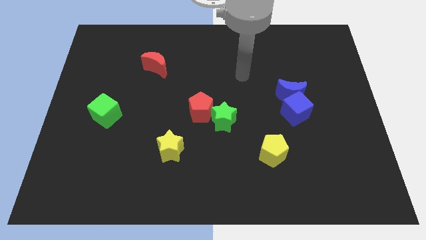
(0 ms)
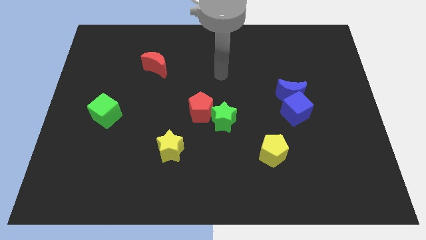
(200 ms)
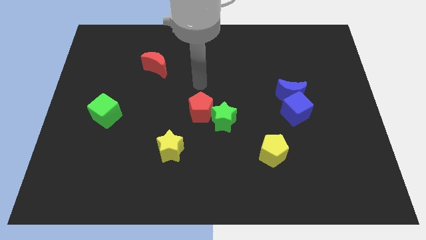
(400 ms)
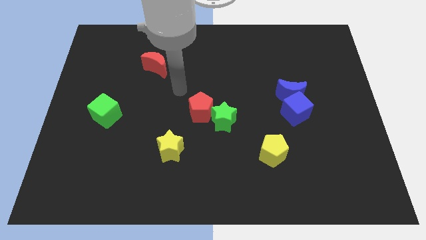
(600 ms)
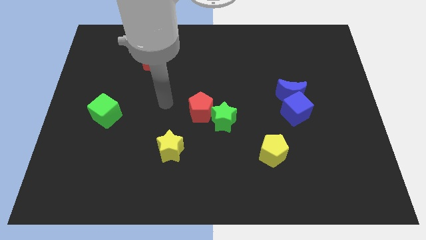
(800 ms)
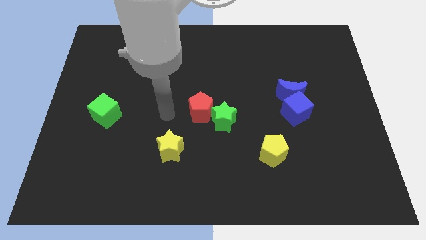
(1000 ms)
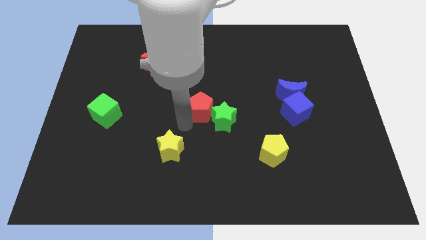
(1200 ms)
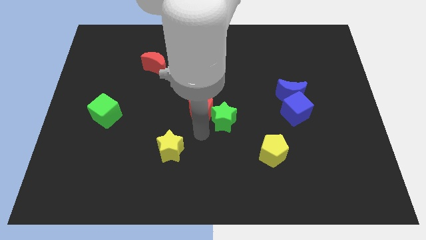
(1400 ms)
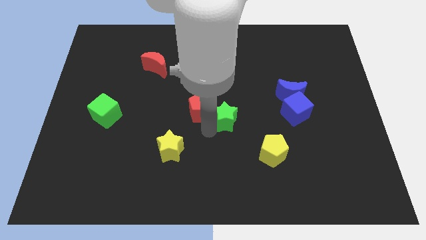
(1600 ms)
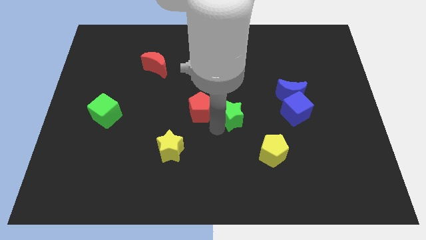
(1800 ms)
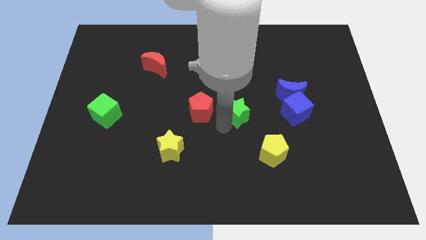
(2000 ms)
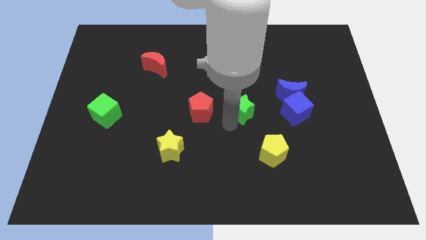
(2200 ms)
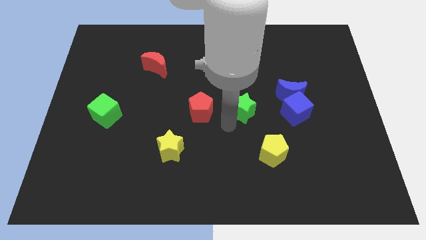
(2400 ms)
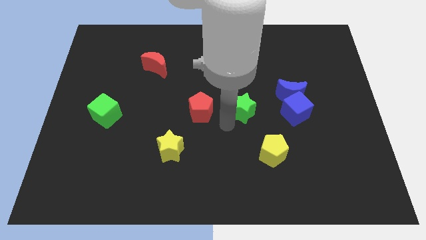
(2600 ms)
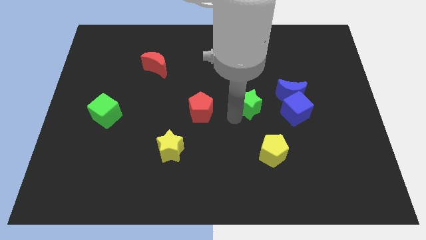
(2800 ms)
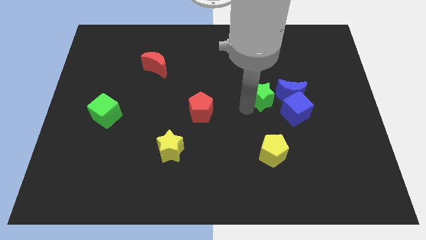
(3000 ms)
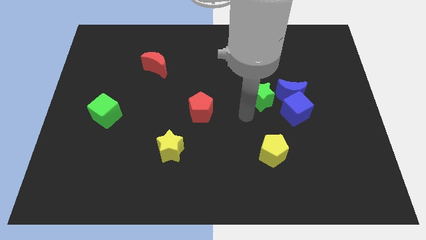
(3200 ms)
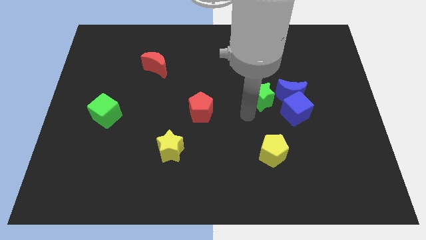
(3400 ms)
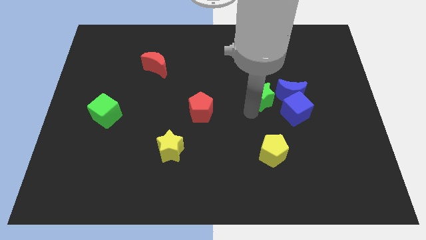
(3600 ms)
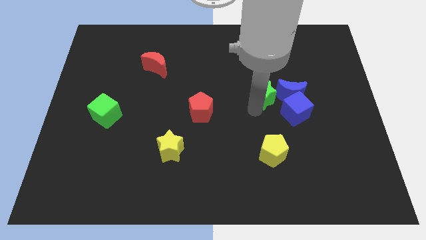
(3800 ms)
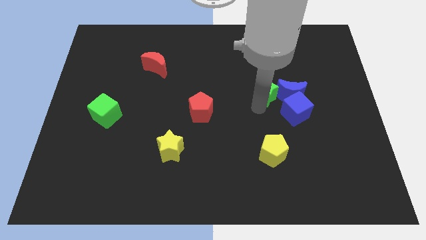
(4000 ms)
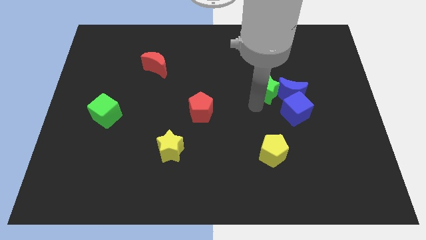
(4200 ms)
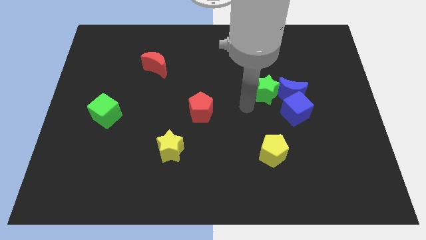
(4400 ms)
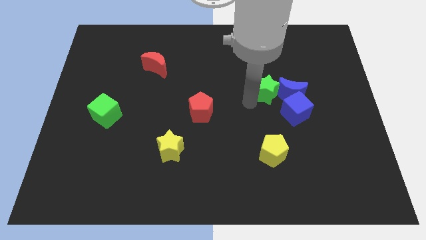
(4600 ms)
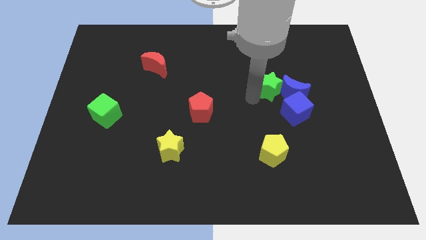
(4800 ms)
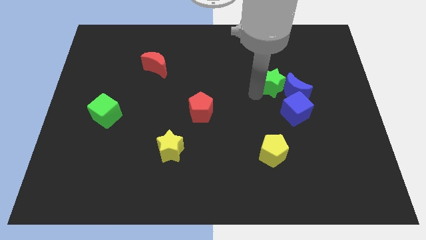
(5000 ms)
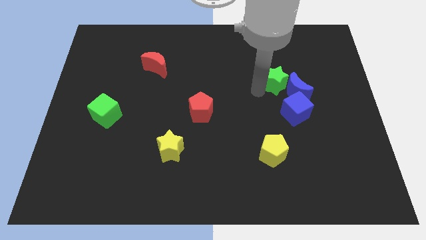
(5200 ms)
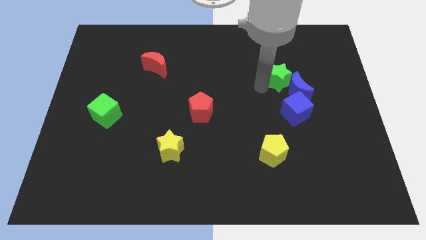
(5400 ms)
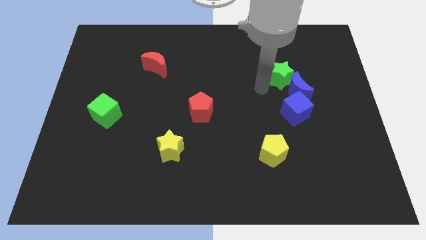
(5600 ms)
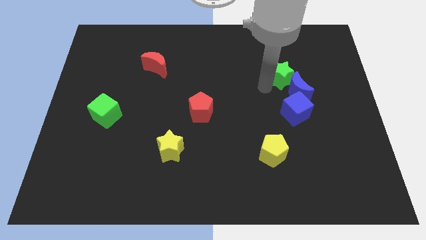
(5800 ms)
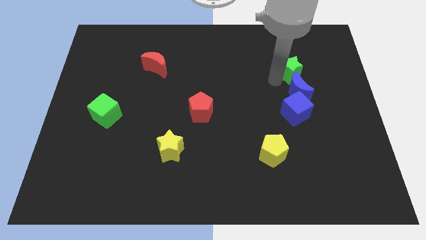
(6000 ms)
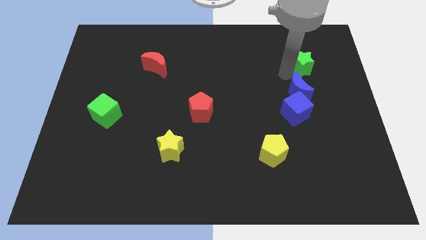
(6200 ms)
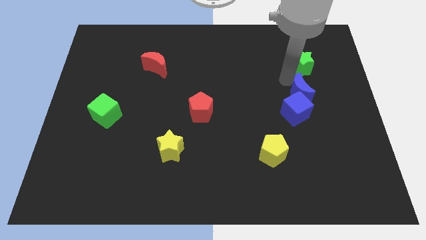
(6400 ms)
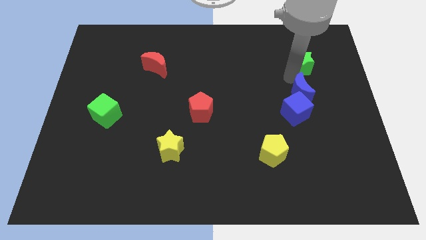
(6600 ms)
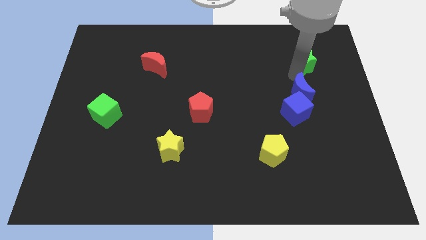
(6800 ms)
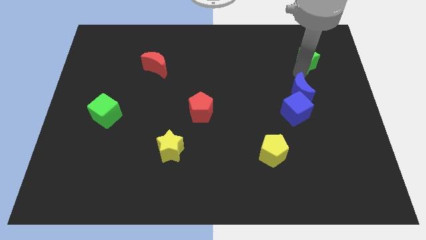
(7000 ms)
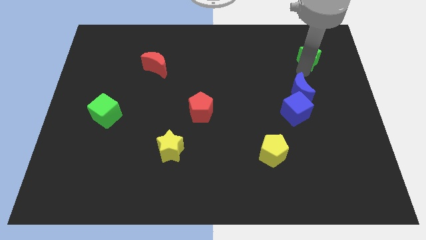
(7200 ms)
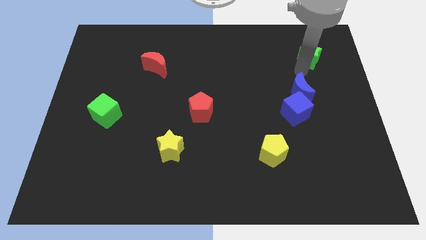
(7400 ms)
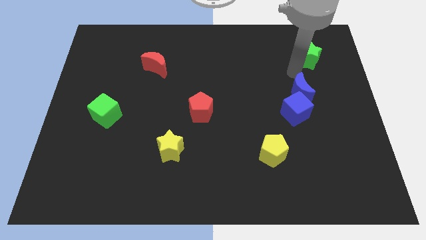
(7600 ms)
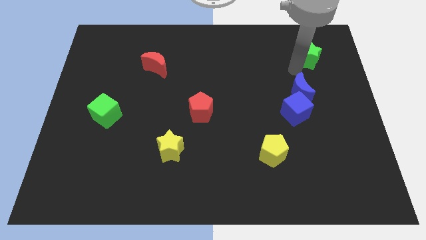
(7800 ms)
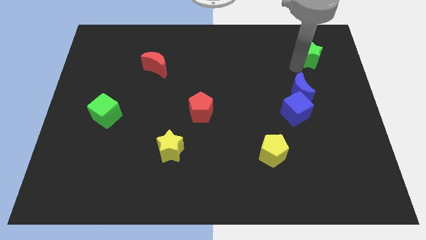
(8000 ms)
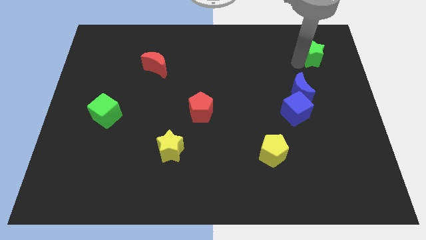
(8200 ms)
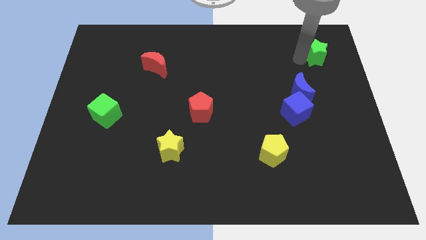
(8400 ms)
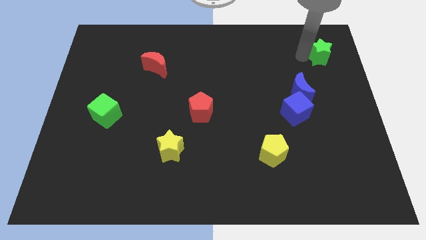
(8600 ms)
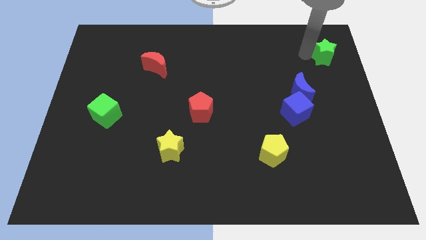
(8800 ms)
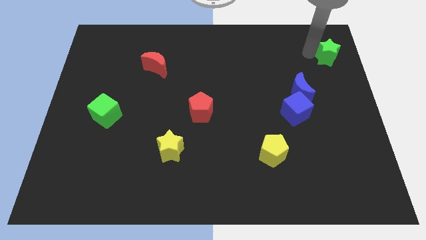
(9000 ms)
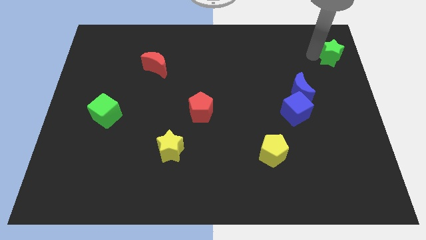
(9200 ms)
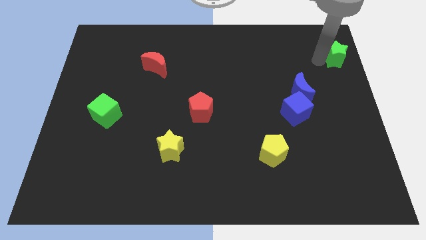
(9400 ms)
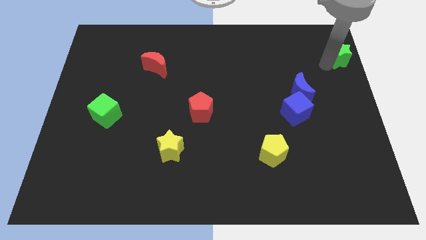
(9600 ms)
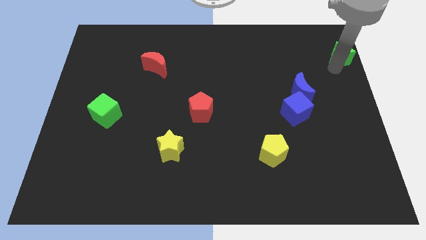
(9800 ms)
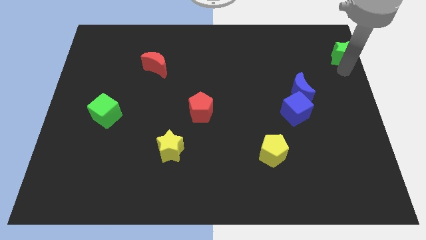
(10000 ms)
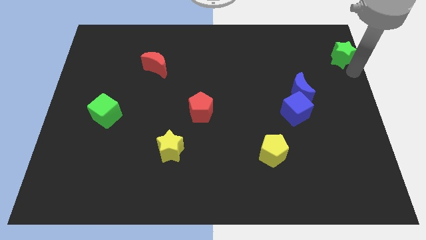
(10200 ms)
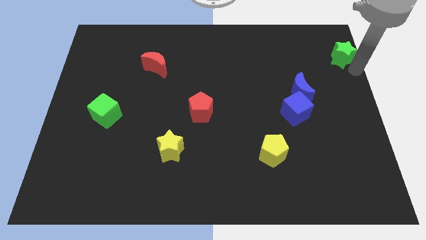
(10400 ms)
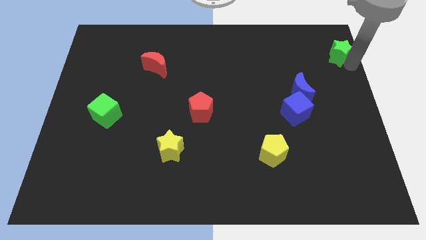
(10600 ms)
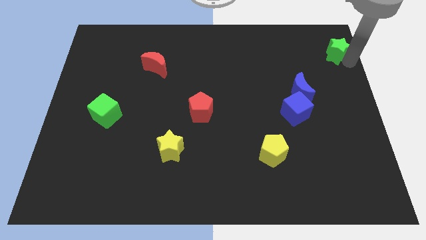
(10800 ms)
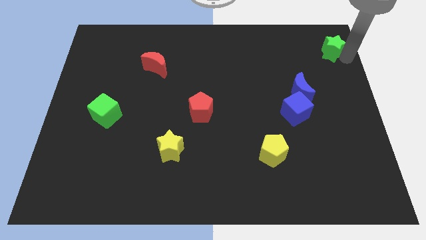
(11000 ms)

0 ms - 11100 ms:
slide the green star to the top right corner

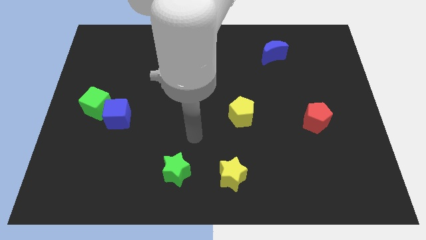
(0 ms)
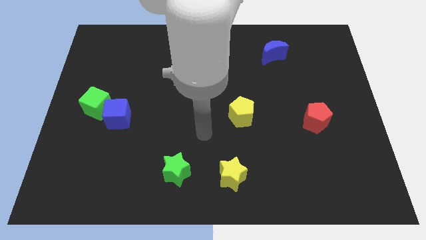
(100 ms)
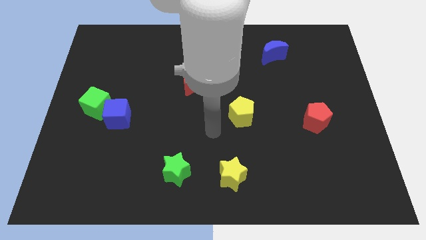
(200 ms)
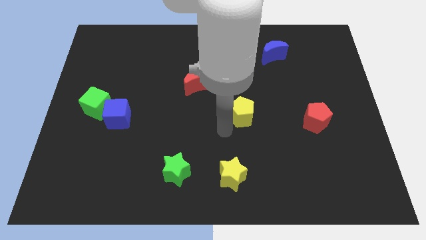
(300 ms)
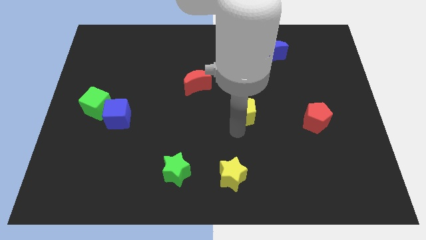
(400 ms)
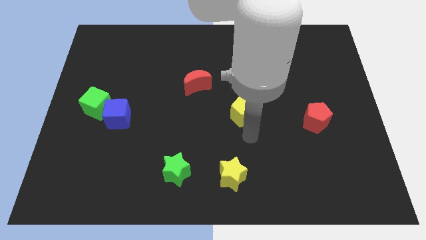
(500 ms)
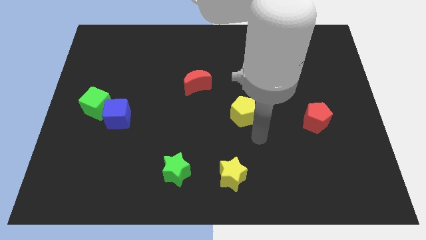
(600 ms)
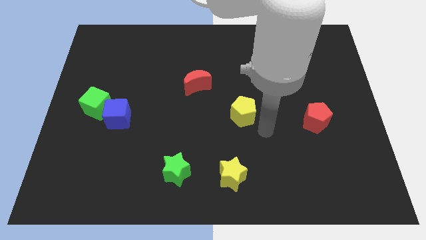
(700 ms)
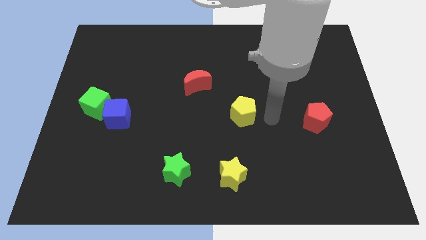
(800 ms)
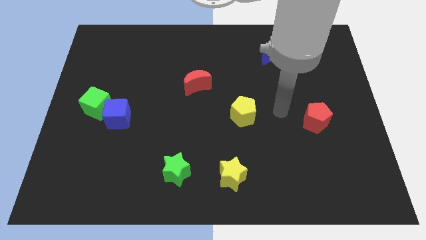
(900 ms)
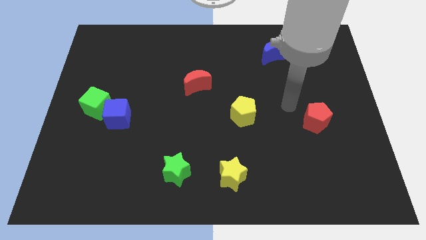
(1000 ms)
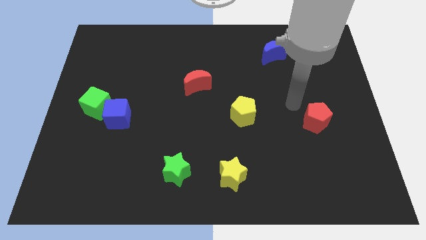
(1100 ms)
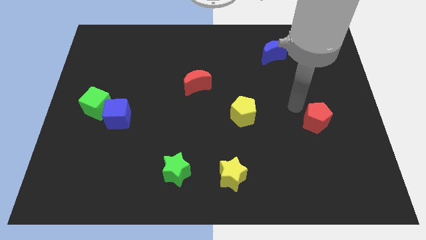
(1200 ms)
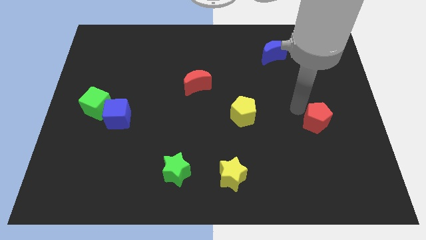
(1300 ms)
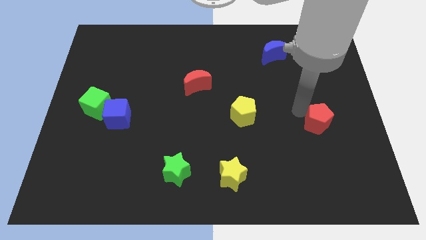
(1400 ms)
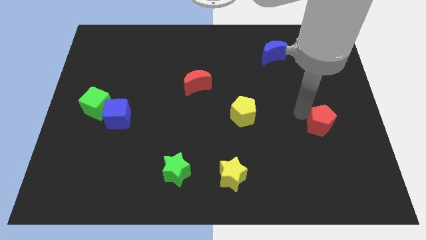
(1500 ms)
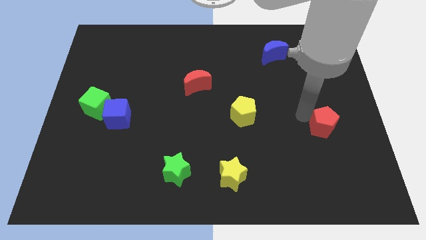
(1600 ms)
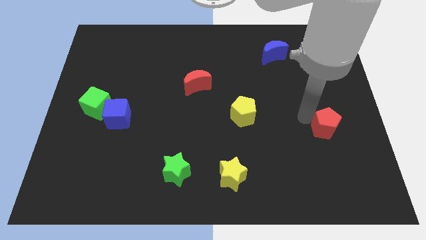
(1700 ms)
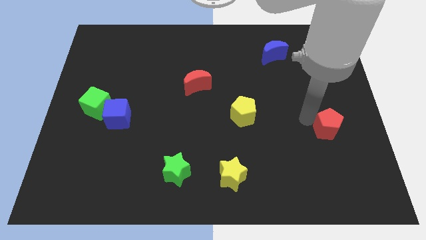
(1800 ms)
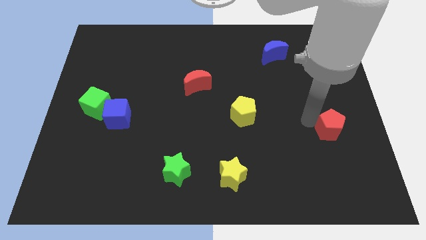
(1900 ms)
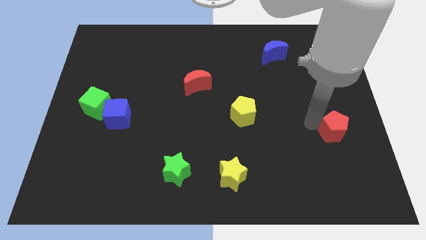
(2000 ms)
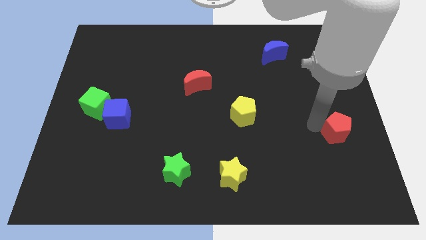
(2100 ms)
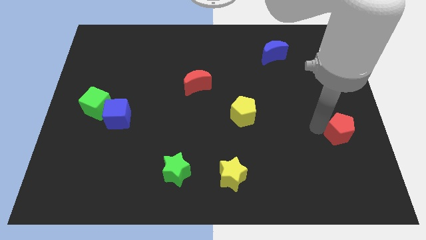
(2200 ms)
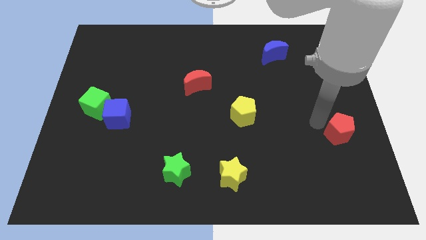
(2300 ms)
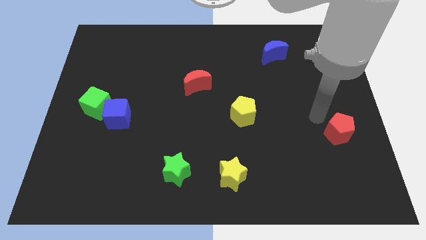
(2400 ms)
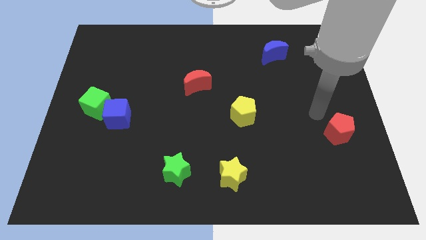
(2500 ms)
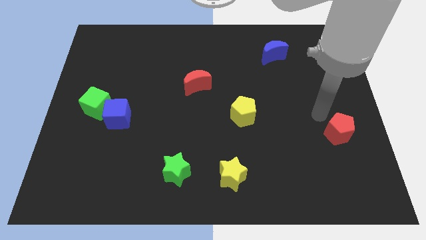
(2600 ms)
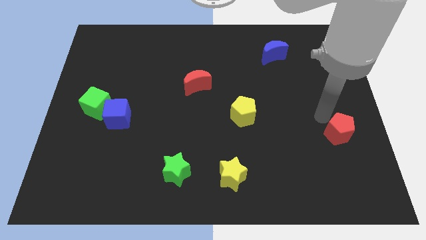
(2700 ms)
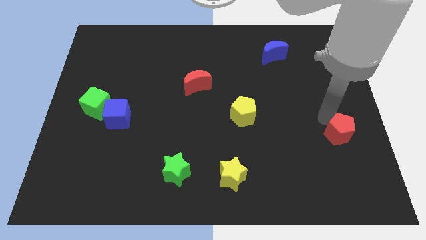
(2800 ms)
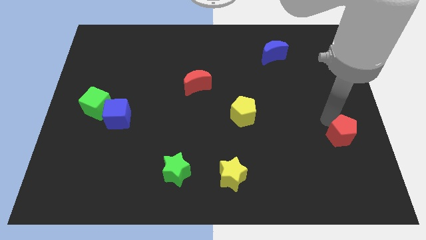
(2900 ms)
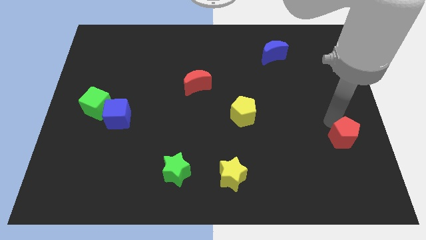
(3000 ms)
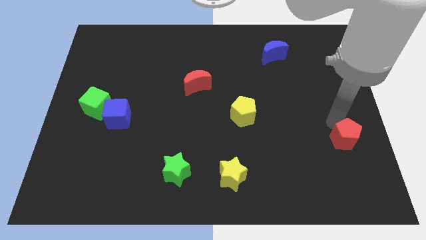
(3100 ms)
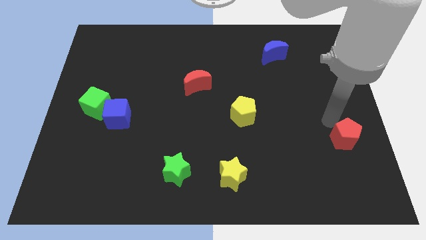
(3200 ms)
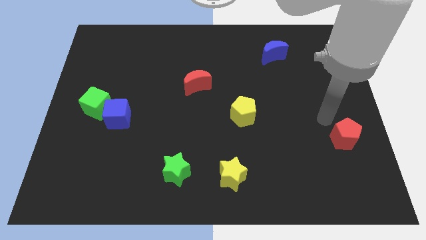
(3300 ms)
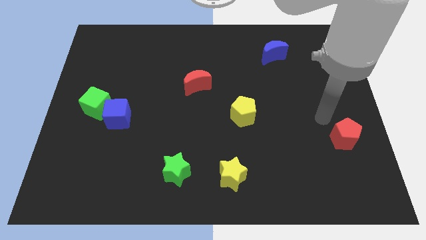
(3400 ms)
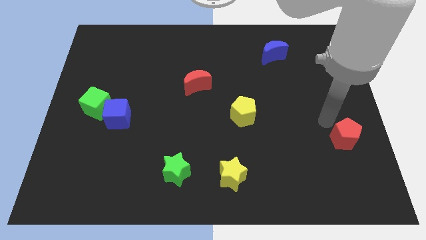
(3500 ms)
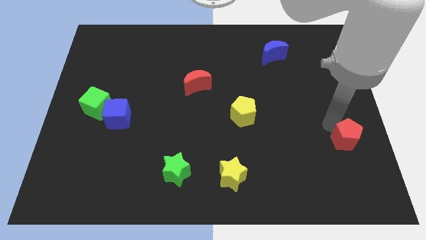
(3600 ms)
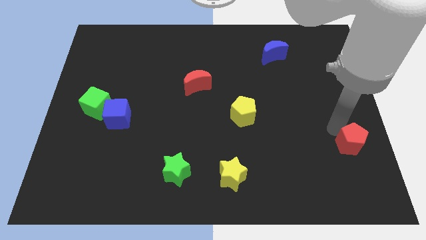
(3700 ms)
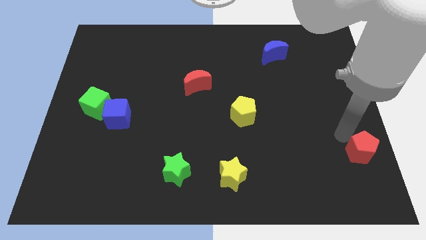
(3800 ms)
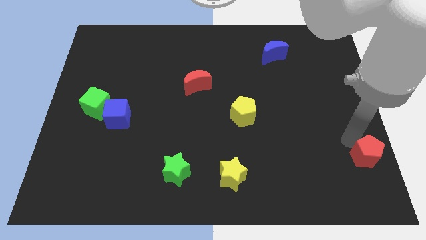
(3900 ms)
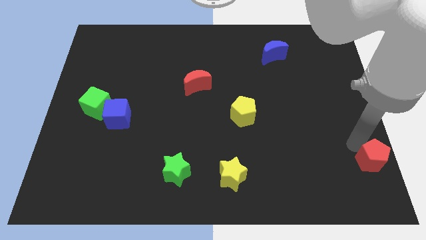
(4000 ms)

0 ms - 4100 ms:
move the red pentagon to the bottom right of the board
